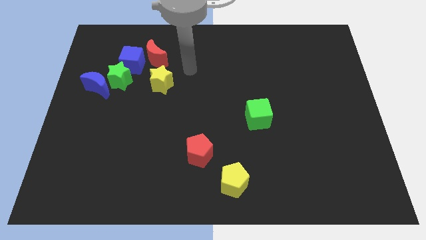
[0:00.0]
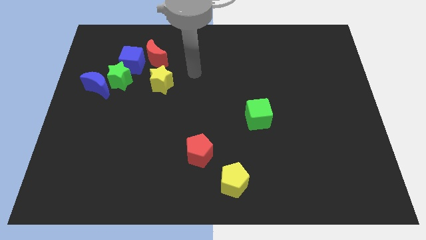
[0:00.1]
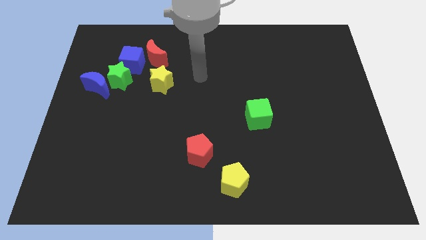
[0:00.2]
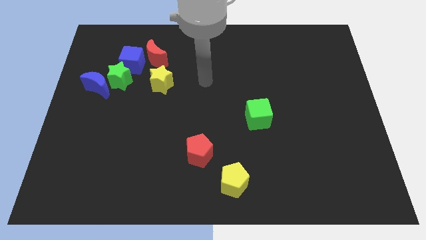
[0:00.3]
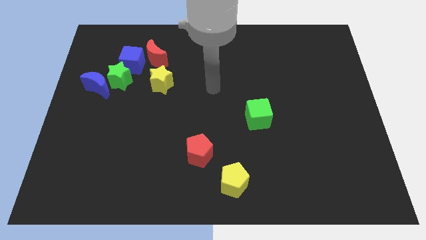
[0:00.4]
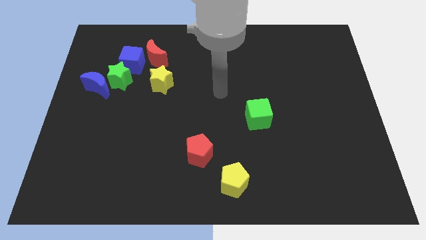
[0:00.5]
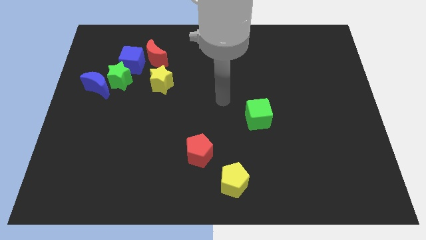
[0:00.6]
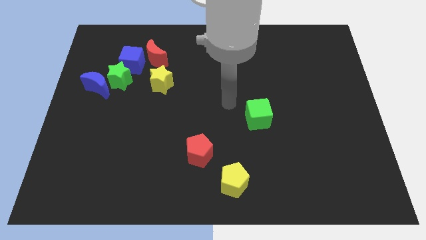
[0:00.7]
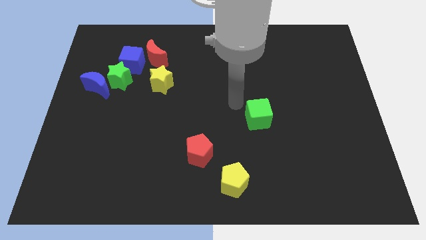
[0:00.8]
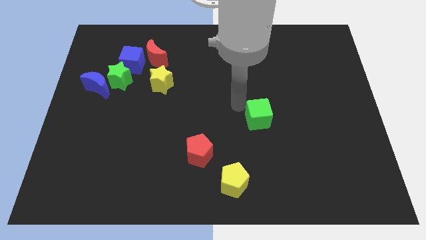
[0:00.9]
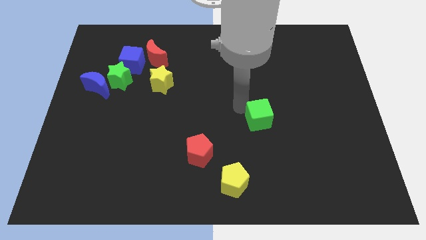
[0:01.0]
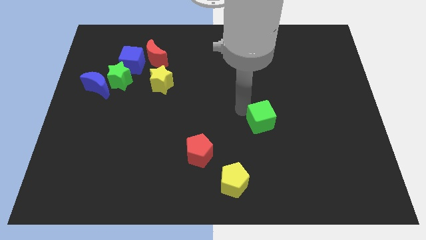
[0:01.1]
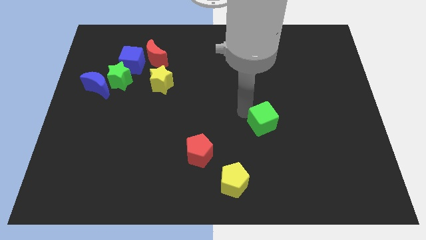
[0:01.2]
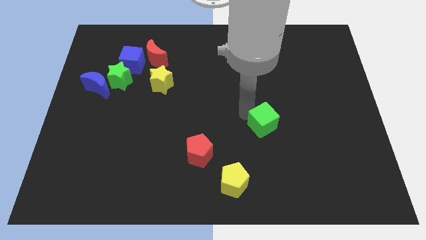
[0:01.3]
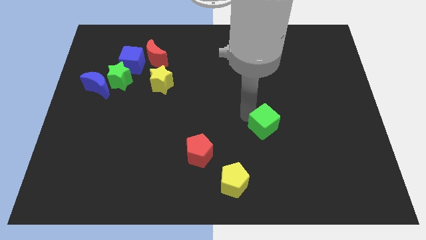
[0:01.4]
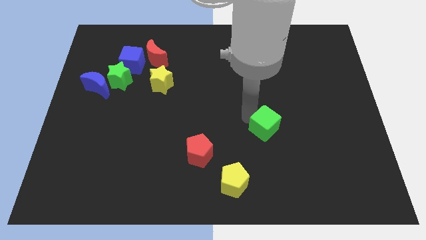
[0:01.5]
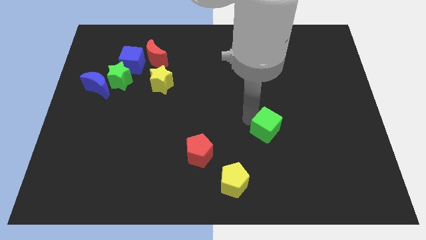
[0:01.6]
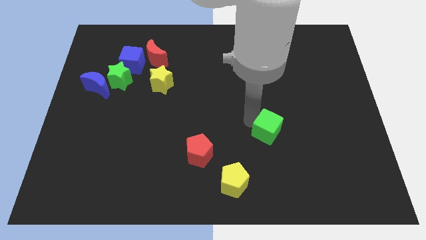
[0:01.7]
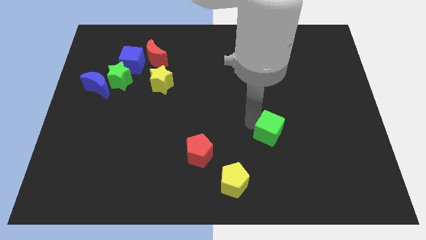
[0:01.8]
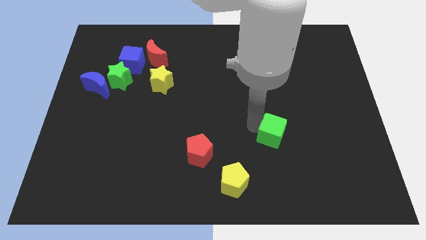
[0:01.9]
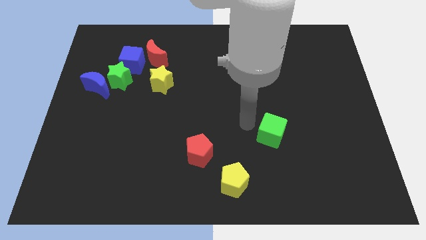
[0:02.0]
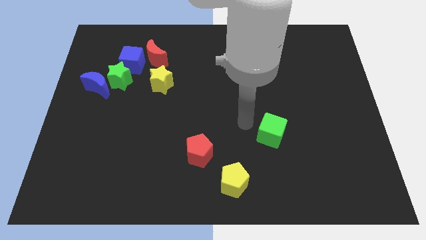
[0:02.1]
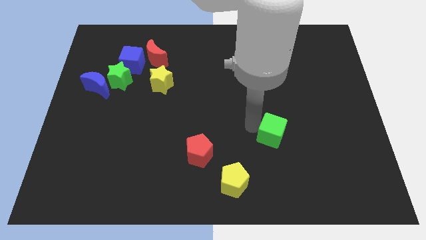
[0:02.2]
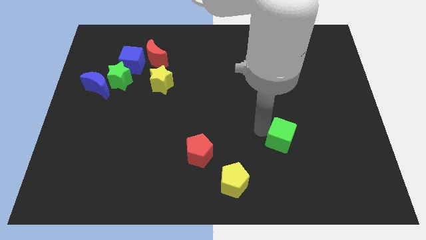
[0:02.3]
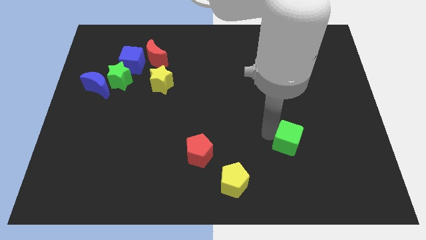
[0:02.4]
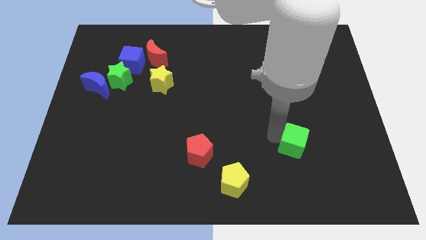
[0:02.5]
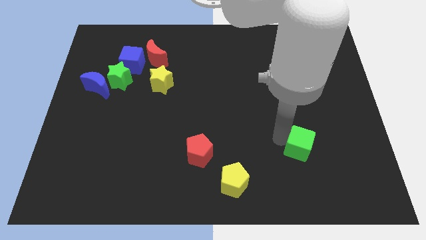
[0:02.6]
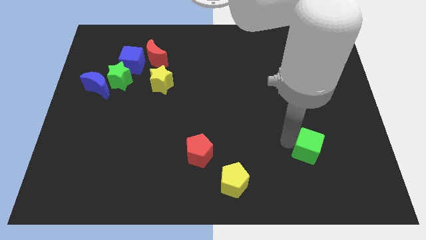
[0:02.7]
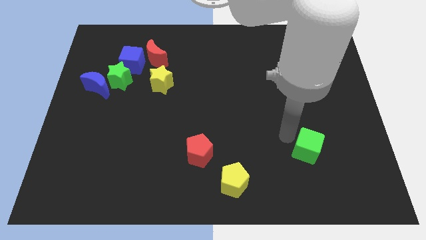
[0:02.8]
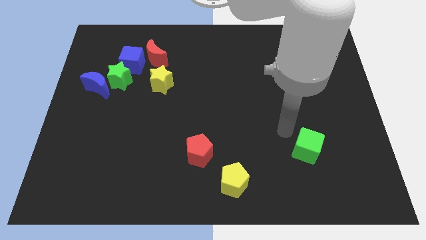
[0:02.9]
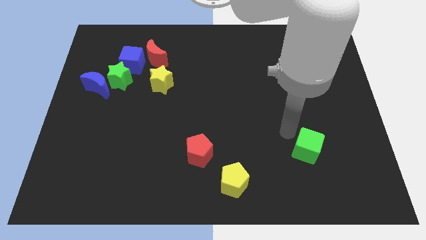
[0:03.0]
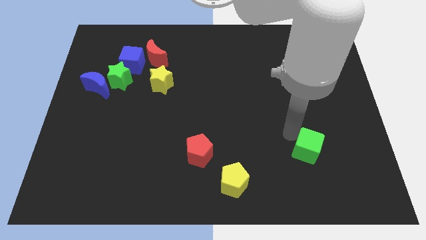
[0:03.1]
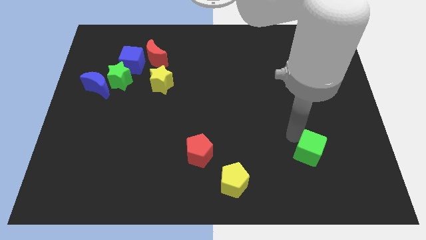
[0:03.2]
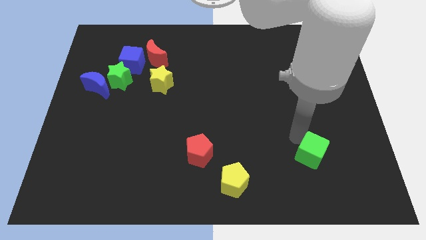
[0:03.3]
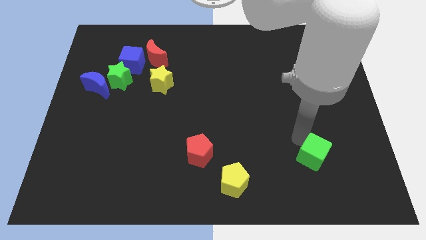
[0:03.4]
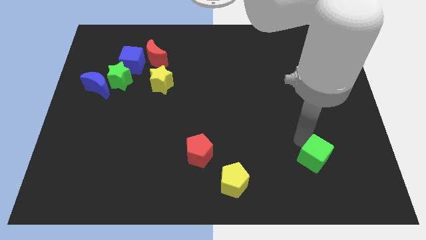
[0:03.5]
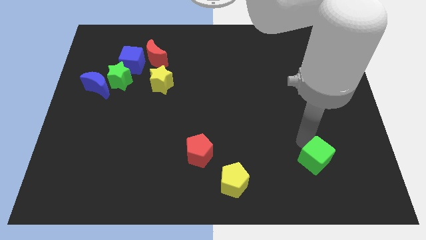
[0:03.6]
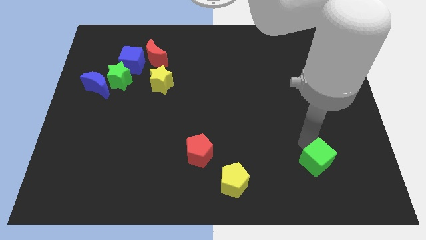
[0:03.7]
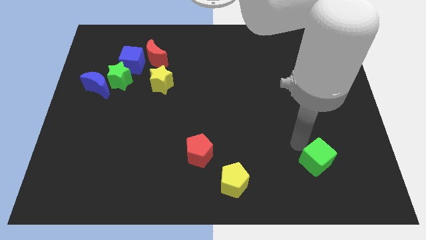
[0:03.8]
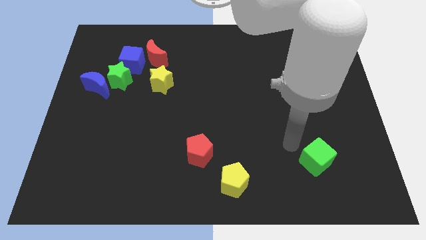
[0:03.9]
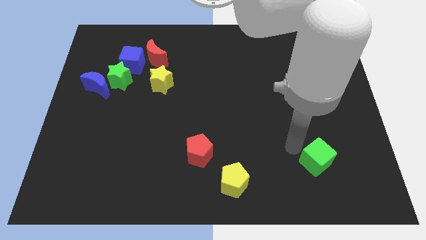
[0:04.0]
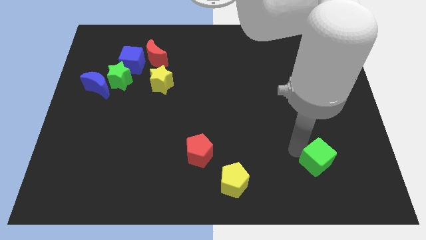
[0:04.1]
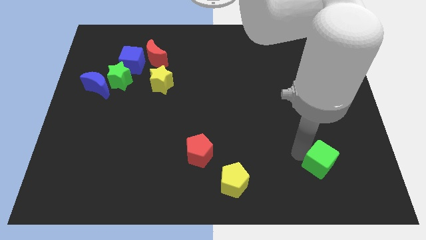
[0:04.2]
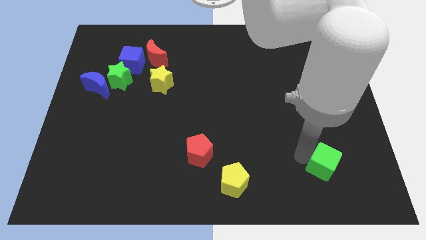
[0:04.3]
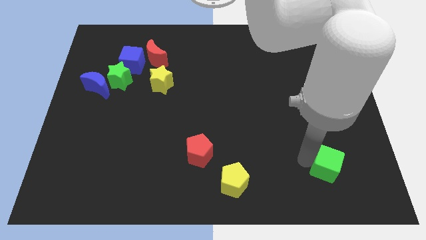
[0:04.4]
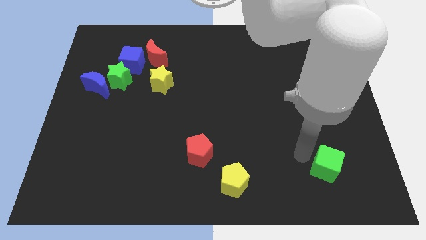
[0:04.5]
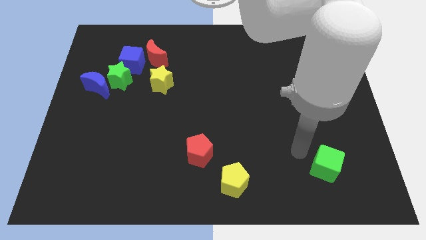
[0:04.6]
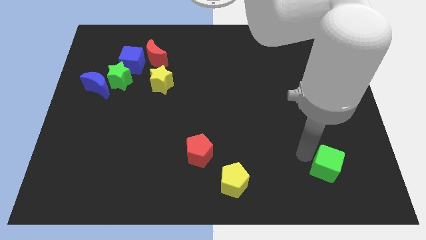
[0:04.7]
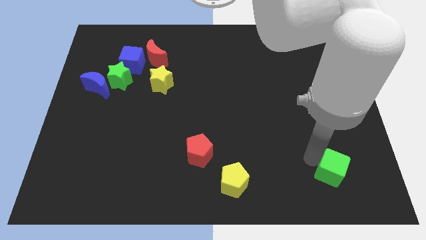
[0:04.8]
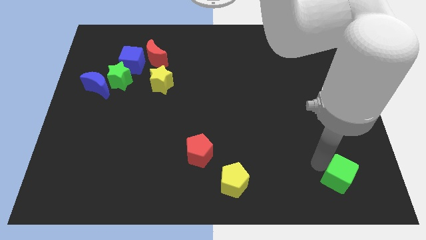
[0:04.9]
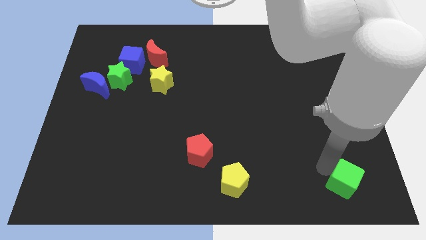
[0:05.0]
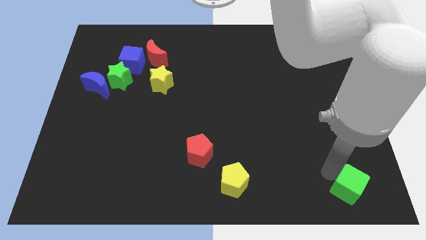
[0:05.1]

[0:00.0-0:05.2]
put the green cube to the bottom right

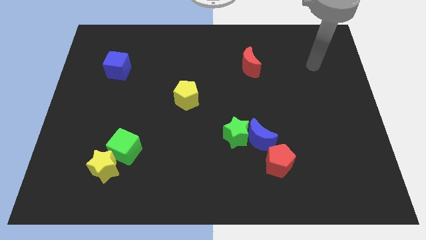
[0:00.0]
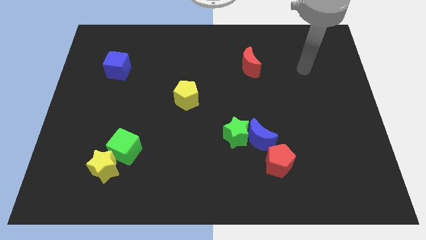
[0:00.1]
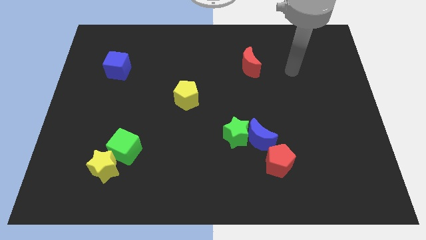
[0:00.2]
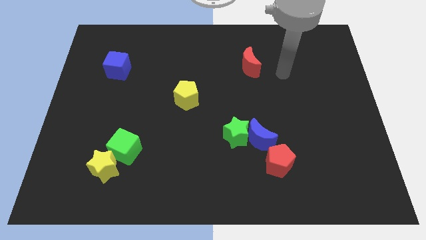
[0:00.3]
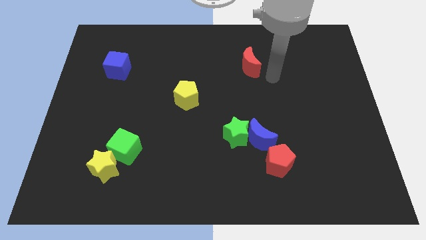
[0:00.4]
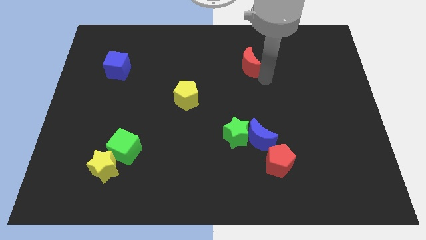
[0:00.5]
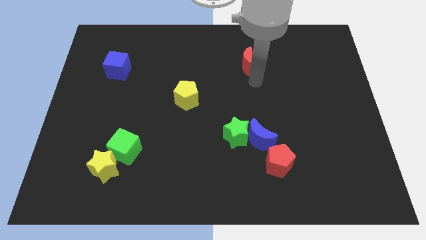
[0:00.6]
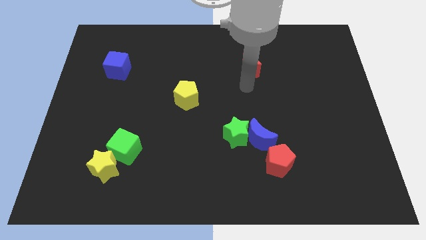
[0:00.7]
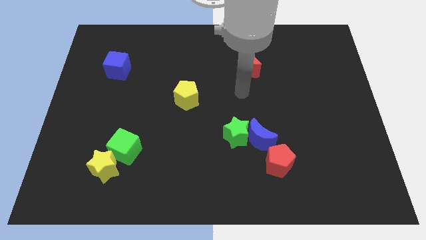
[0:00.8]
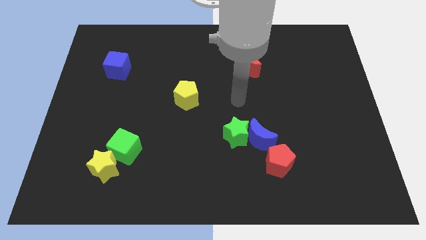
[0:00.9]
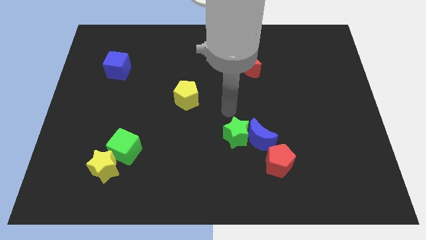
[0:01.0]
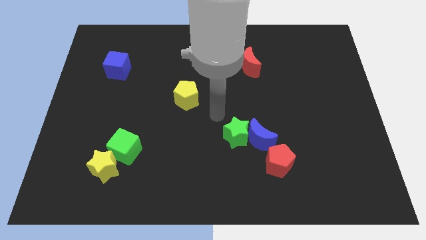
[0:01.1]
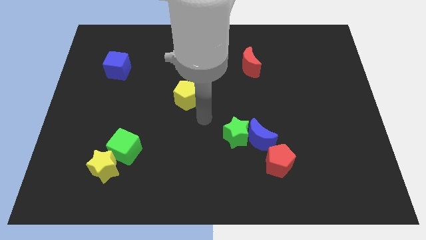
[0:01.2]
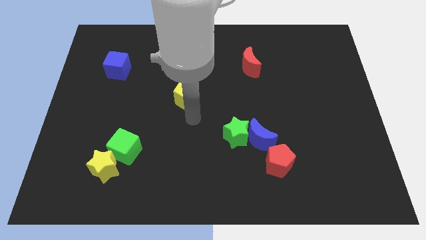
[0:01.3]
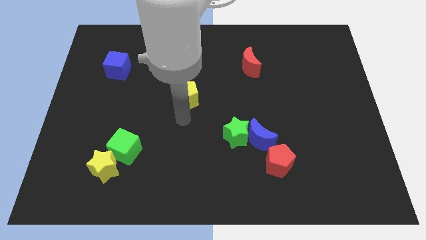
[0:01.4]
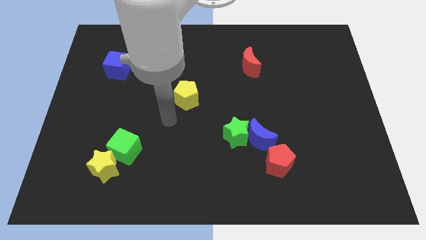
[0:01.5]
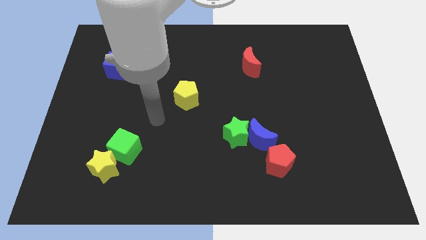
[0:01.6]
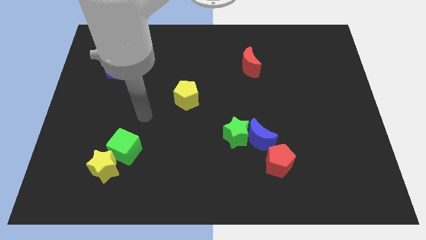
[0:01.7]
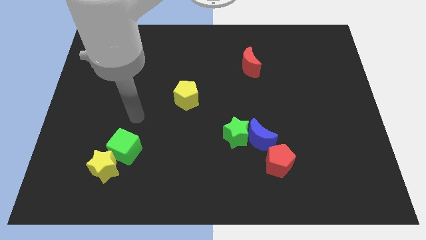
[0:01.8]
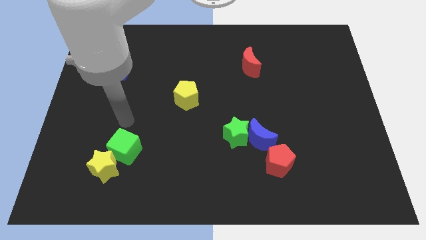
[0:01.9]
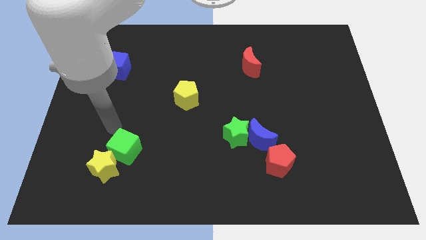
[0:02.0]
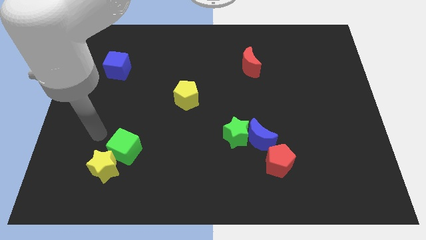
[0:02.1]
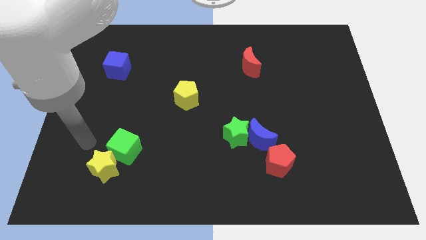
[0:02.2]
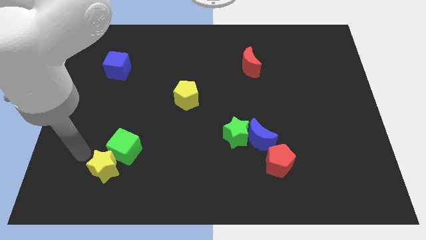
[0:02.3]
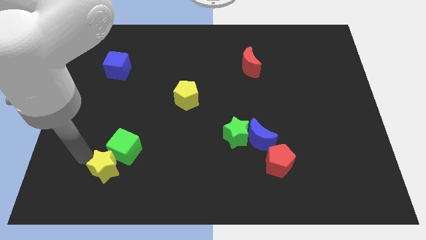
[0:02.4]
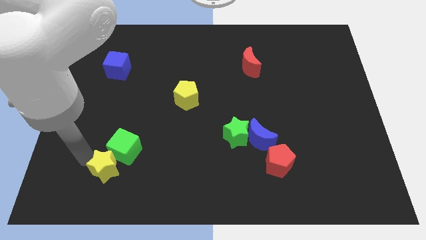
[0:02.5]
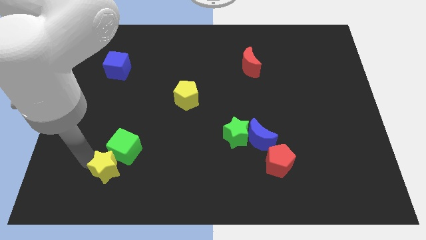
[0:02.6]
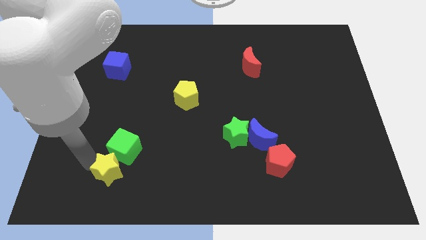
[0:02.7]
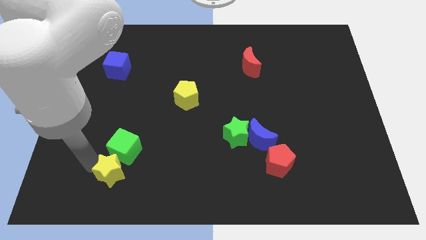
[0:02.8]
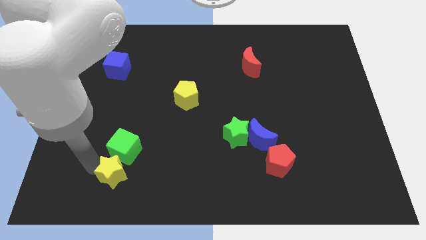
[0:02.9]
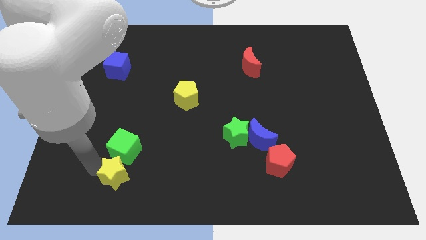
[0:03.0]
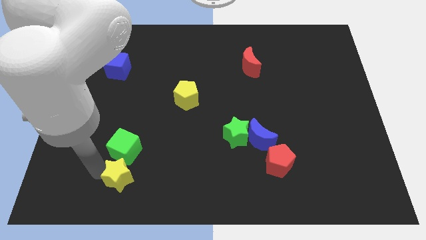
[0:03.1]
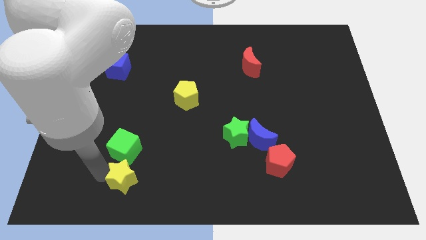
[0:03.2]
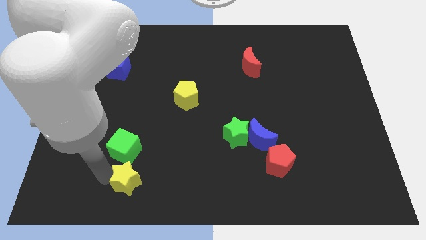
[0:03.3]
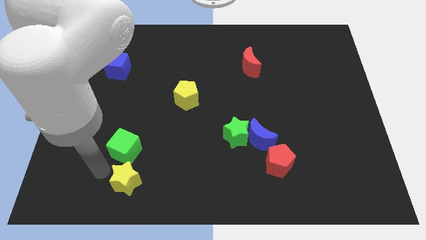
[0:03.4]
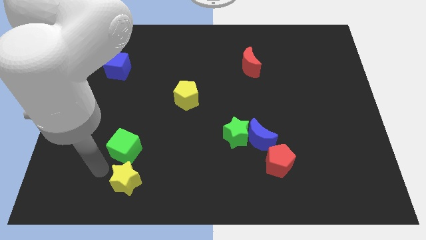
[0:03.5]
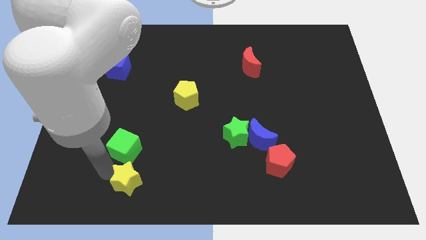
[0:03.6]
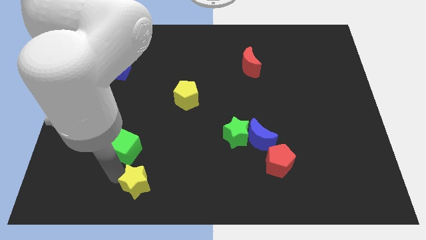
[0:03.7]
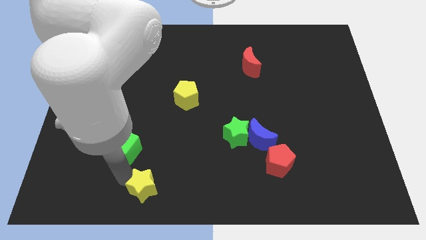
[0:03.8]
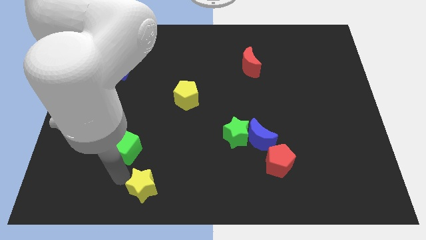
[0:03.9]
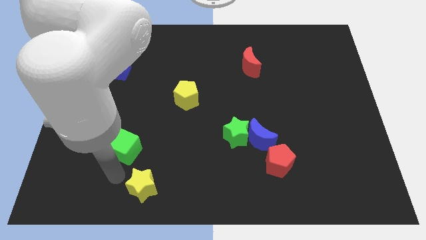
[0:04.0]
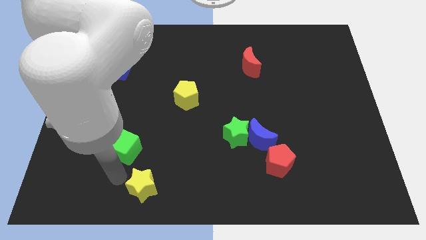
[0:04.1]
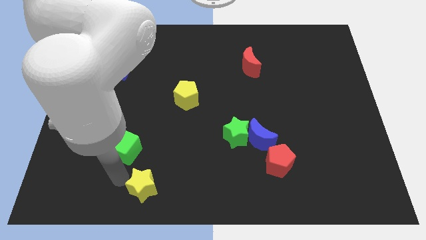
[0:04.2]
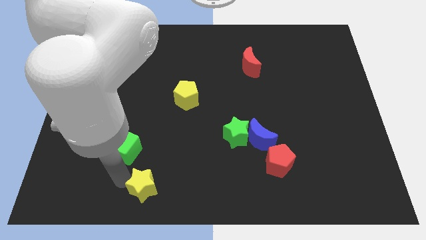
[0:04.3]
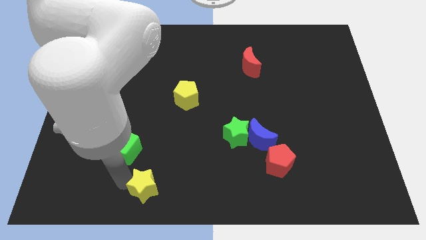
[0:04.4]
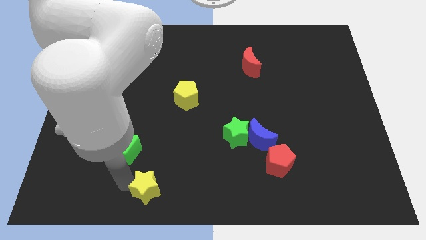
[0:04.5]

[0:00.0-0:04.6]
move the yellow star to the bottom side
